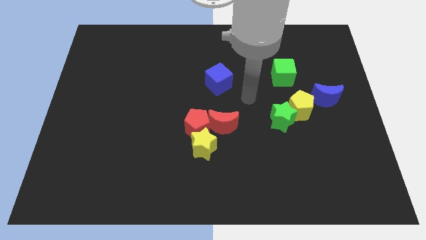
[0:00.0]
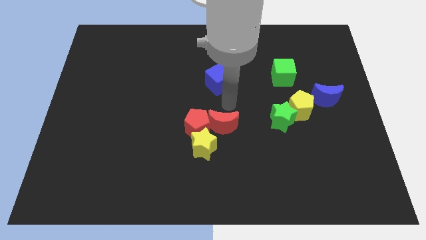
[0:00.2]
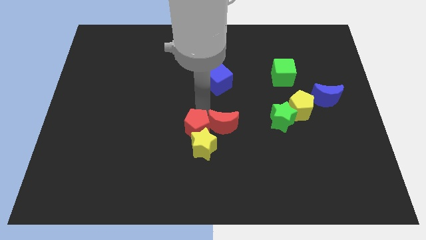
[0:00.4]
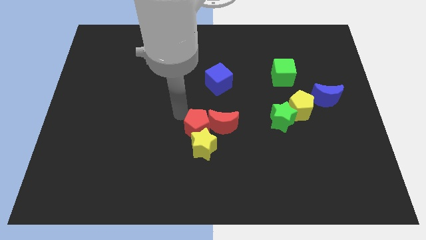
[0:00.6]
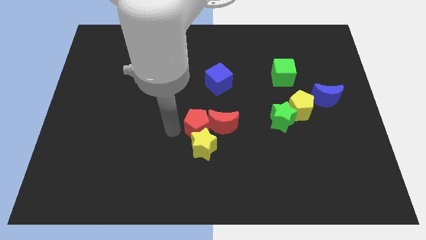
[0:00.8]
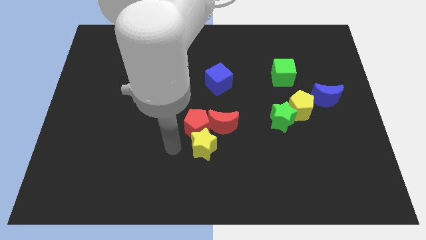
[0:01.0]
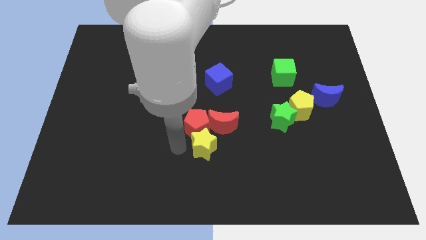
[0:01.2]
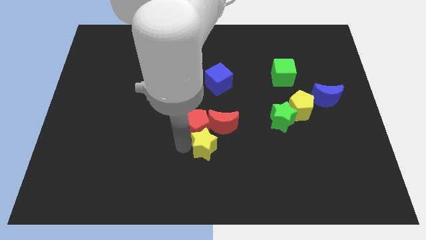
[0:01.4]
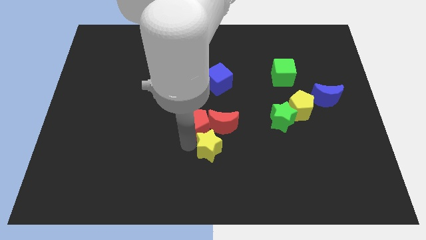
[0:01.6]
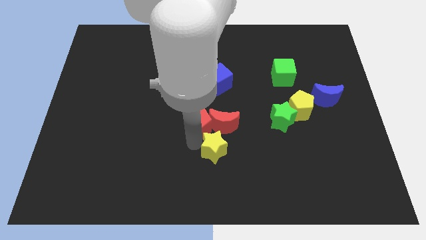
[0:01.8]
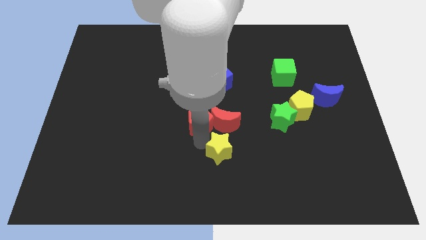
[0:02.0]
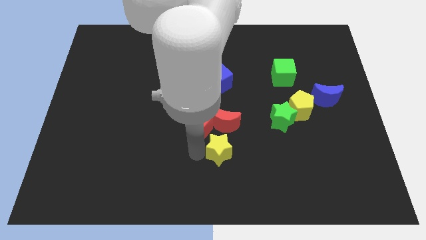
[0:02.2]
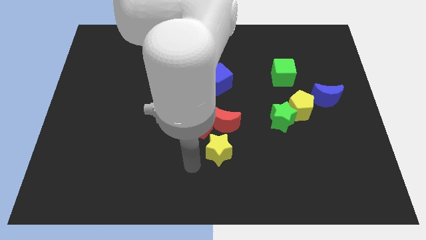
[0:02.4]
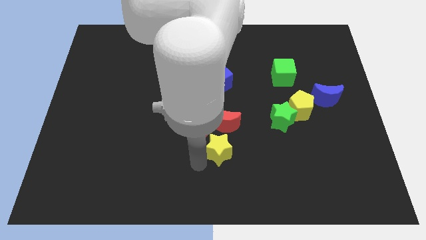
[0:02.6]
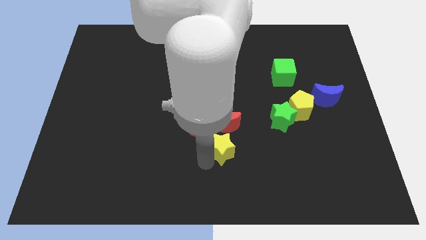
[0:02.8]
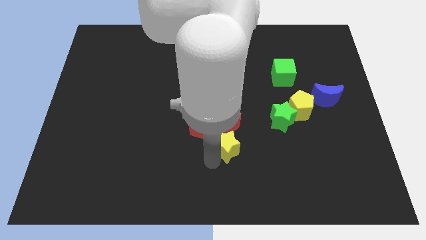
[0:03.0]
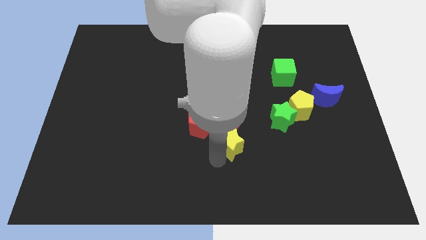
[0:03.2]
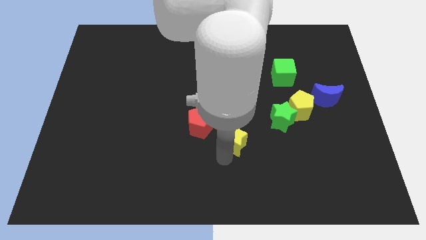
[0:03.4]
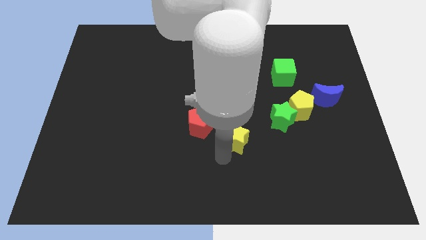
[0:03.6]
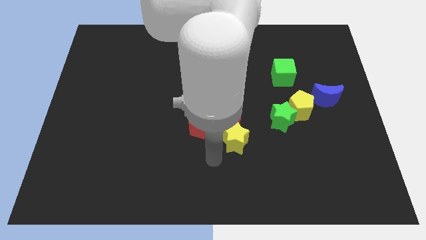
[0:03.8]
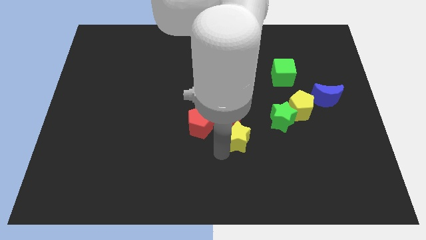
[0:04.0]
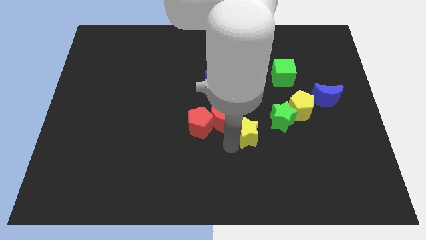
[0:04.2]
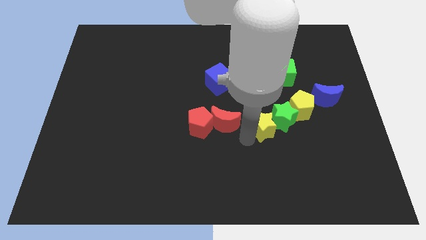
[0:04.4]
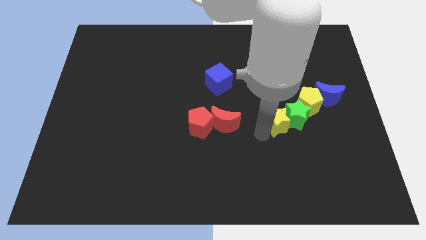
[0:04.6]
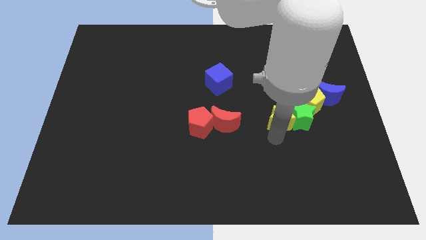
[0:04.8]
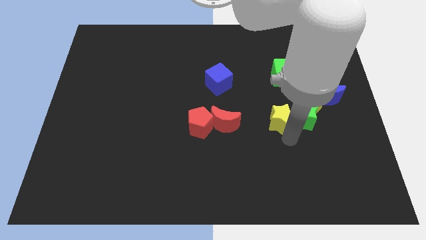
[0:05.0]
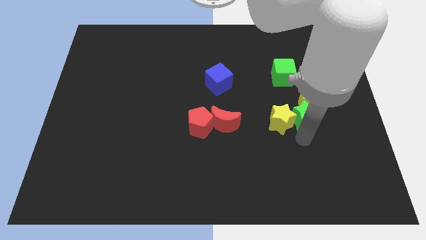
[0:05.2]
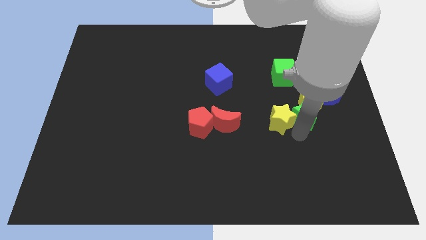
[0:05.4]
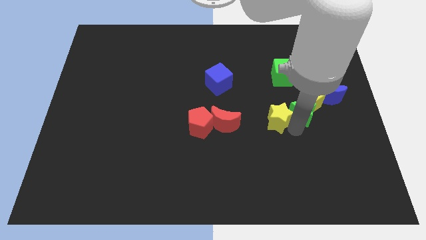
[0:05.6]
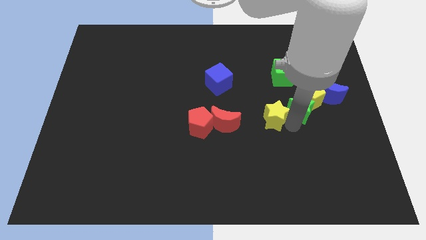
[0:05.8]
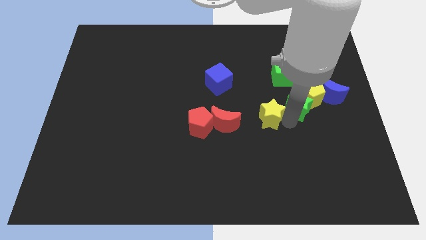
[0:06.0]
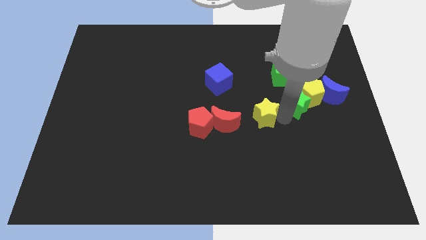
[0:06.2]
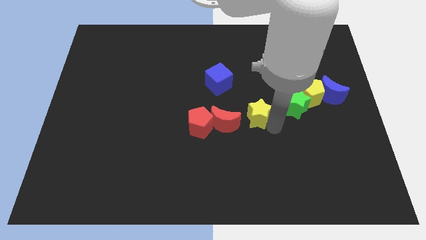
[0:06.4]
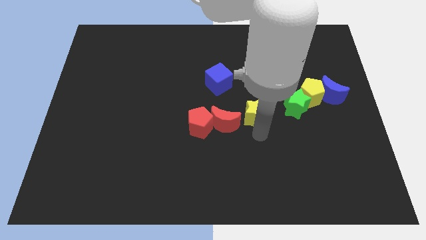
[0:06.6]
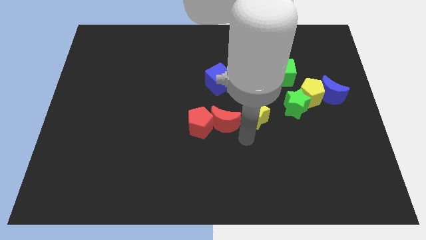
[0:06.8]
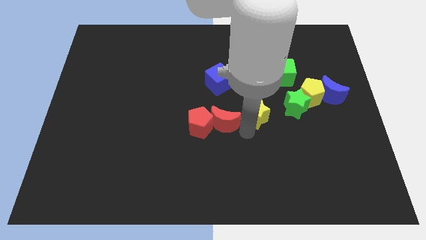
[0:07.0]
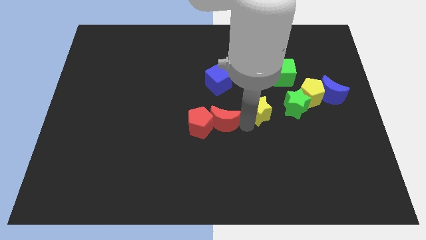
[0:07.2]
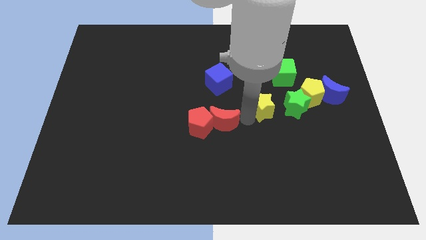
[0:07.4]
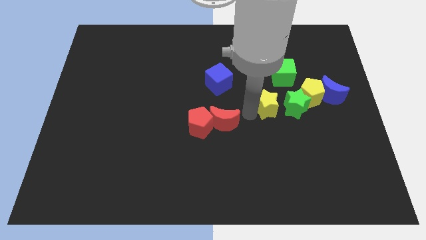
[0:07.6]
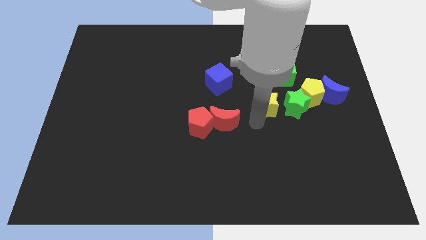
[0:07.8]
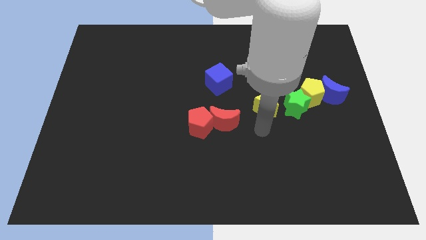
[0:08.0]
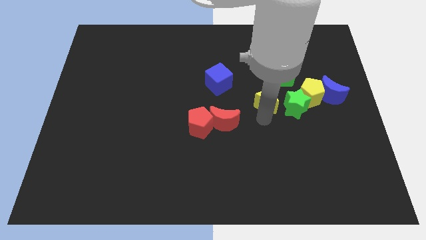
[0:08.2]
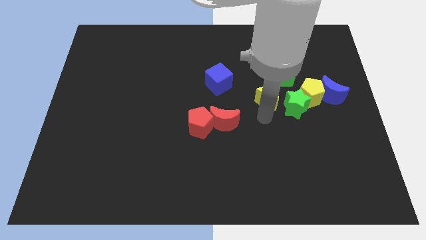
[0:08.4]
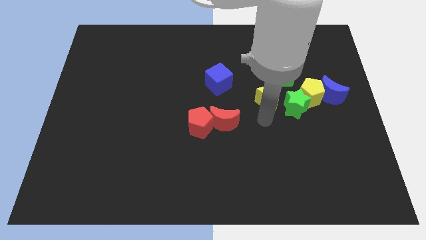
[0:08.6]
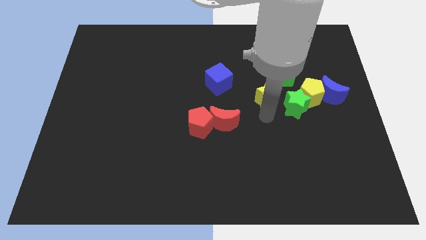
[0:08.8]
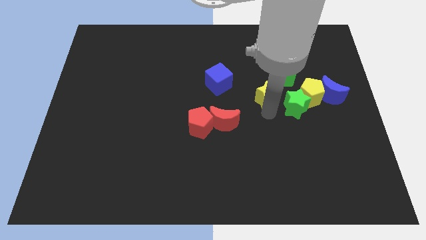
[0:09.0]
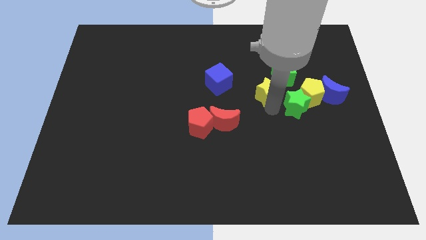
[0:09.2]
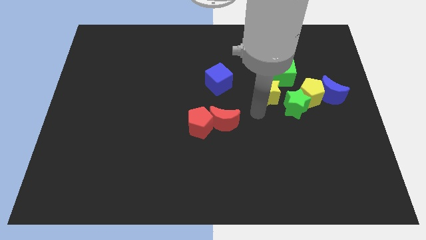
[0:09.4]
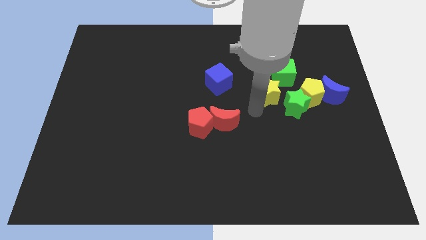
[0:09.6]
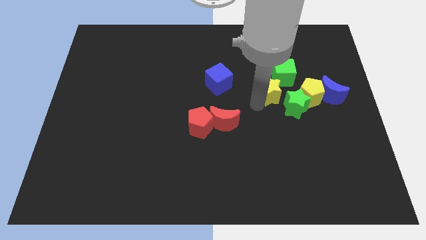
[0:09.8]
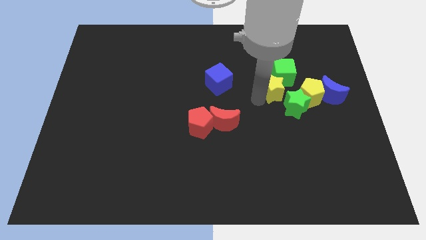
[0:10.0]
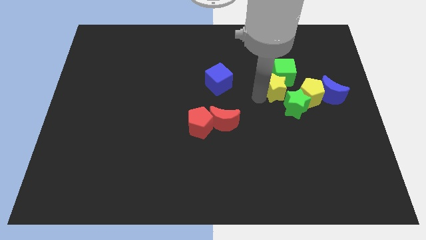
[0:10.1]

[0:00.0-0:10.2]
put the yellow star to the green cube

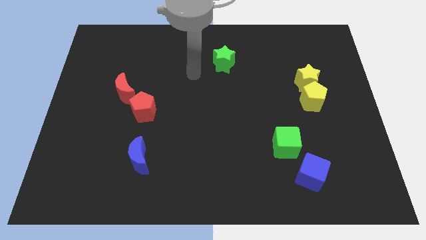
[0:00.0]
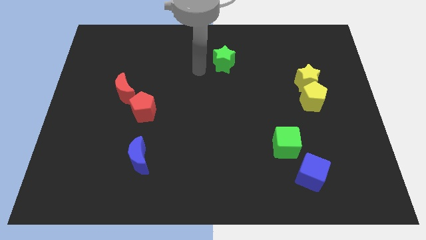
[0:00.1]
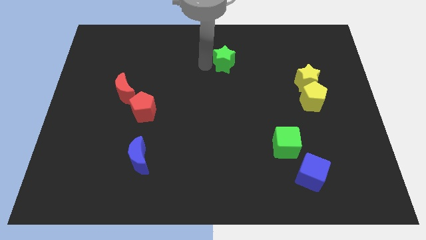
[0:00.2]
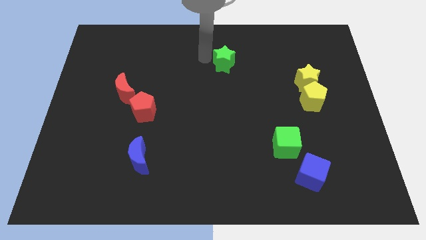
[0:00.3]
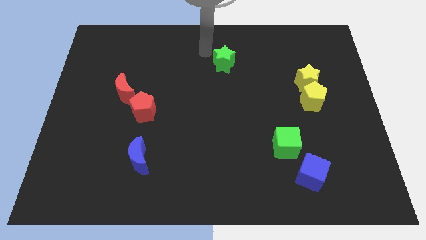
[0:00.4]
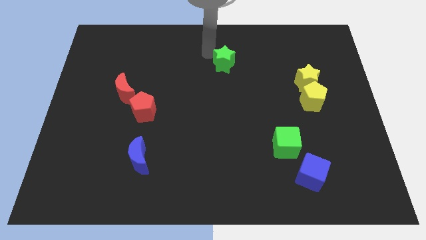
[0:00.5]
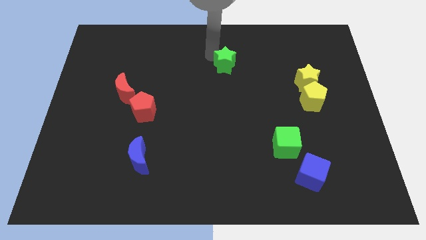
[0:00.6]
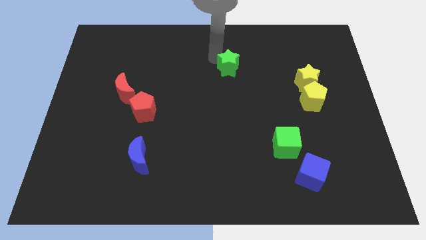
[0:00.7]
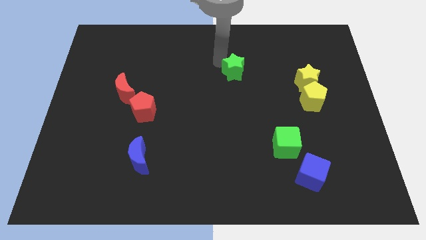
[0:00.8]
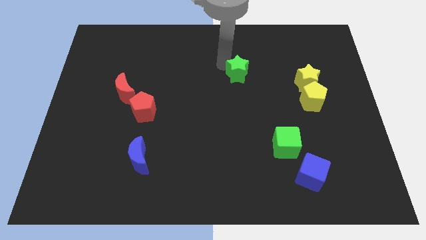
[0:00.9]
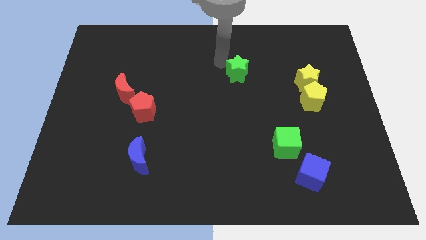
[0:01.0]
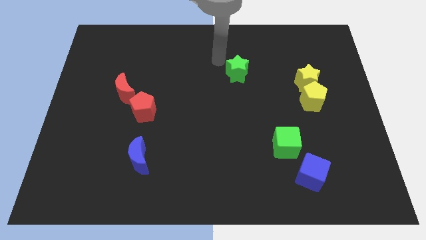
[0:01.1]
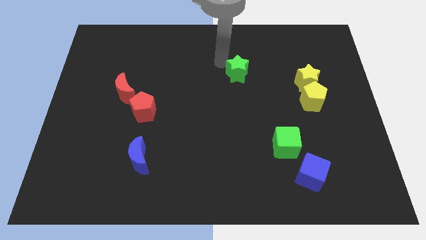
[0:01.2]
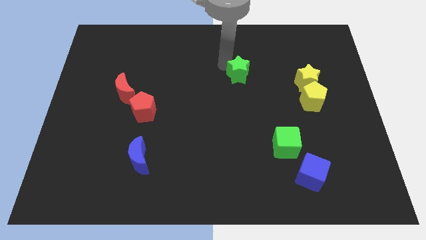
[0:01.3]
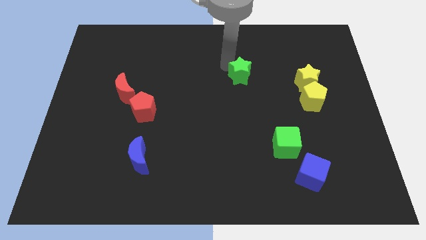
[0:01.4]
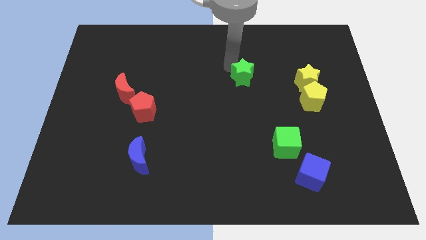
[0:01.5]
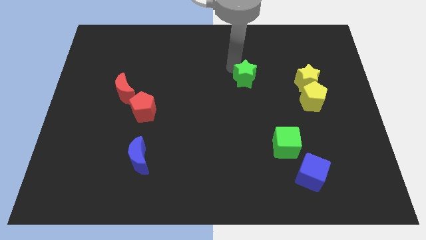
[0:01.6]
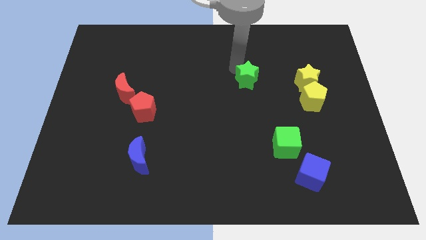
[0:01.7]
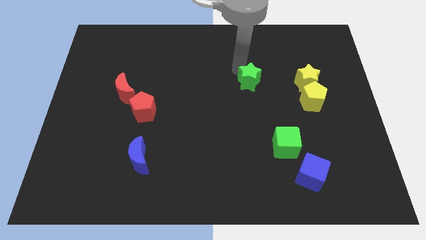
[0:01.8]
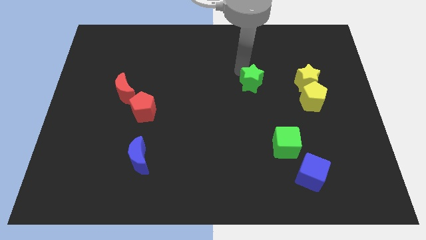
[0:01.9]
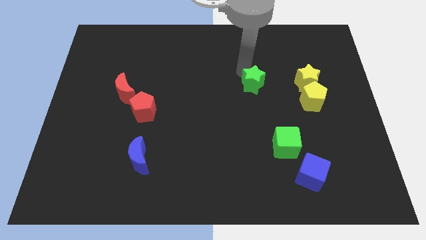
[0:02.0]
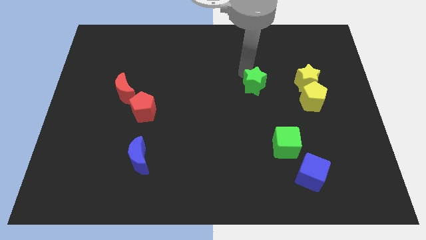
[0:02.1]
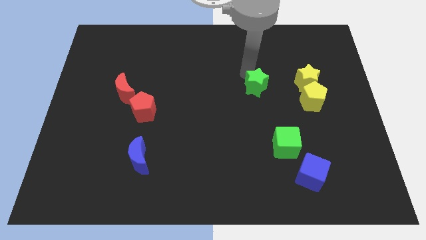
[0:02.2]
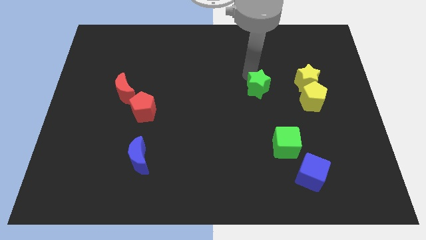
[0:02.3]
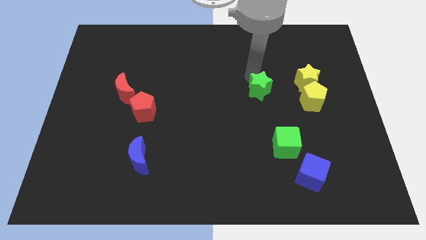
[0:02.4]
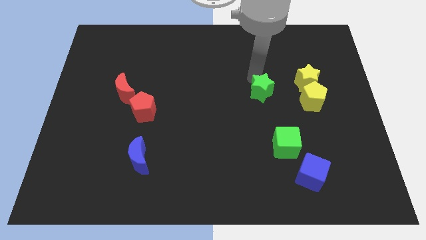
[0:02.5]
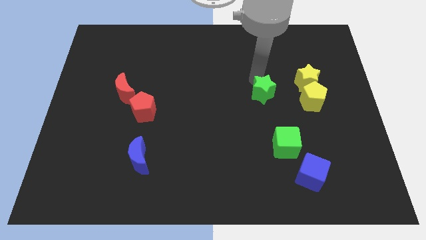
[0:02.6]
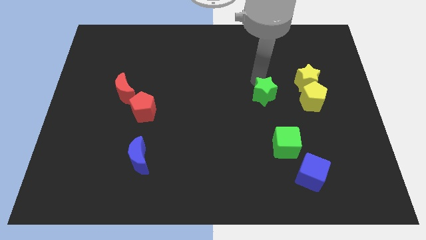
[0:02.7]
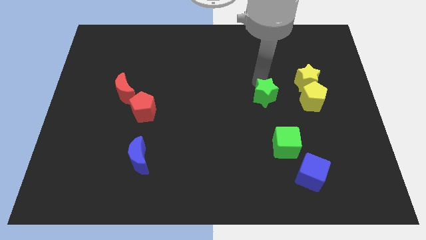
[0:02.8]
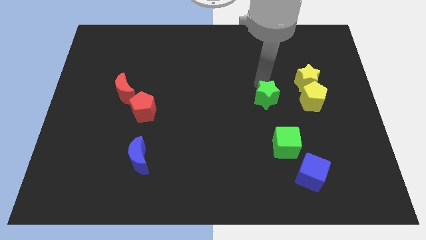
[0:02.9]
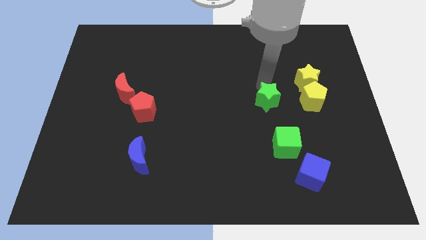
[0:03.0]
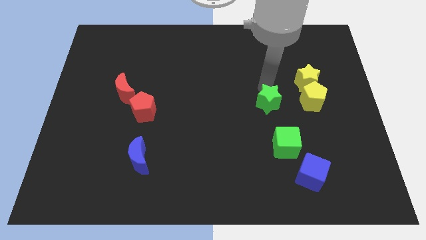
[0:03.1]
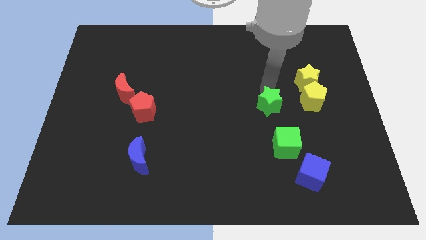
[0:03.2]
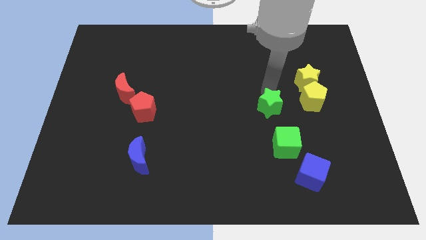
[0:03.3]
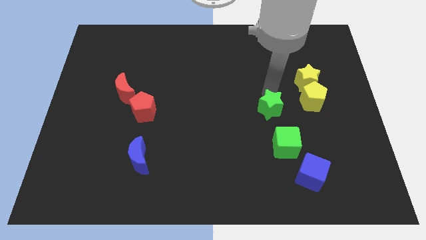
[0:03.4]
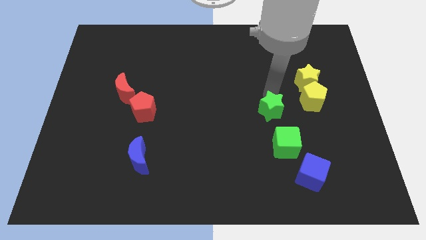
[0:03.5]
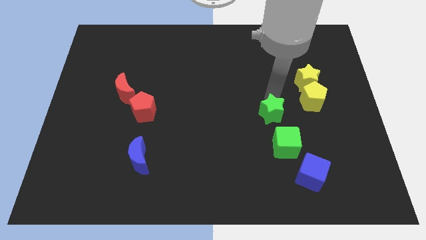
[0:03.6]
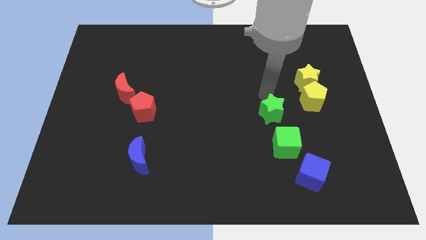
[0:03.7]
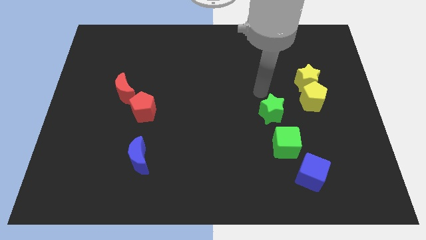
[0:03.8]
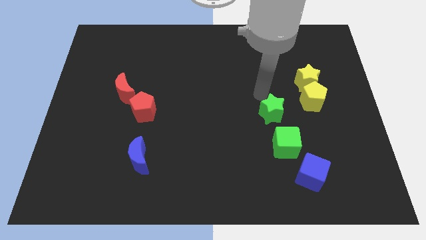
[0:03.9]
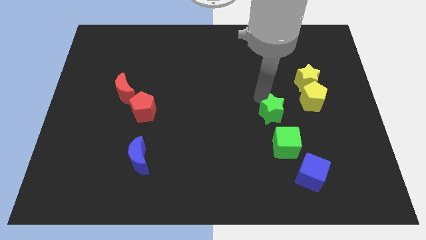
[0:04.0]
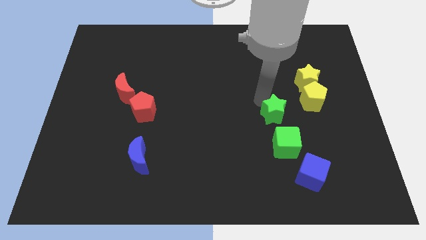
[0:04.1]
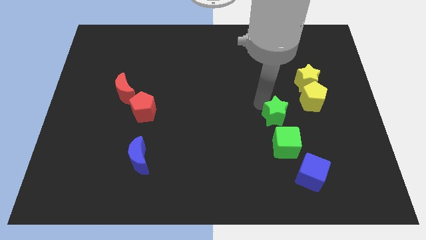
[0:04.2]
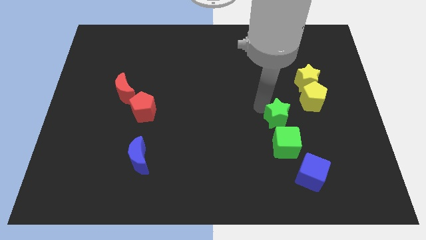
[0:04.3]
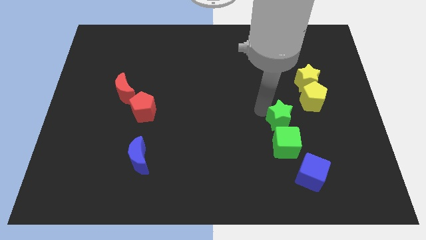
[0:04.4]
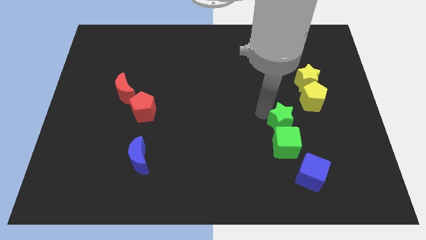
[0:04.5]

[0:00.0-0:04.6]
push the green star towards the green cube
